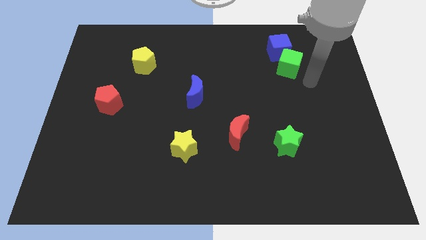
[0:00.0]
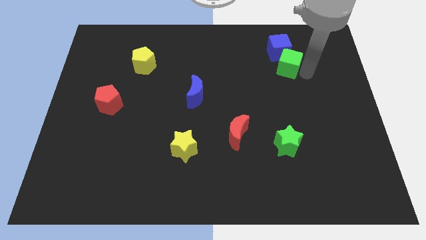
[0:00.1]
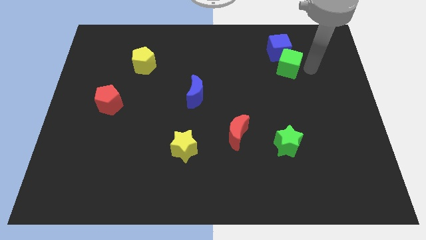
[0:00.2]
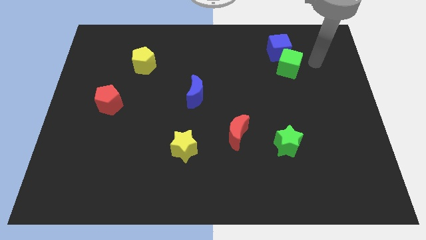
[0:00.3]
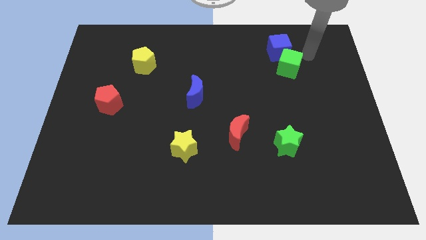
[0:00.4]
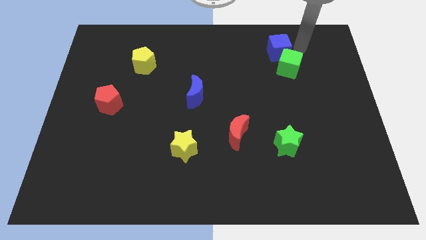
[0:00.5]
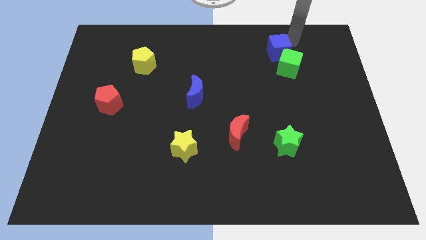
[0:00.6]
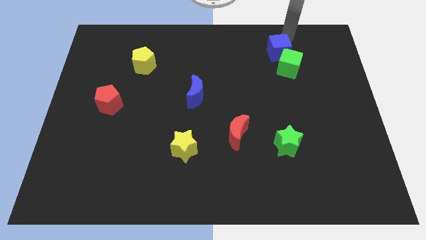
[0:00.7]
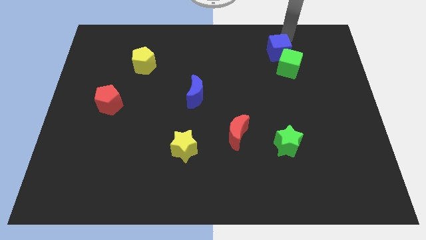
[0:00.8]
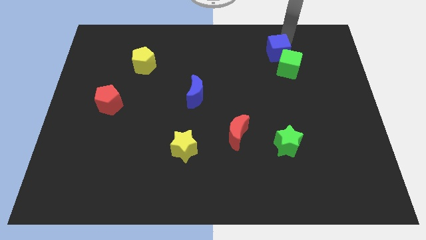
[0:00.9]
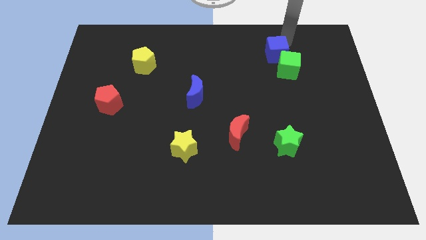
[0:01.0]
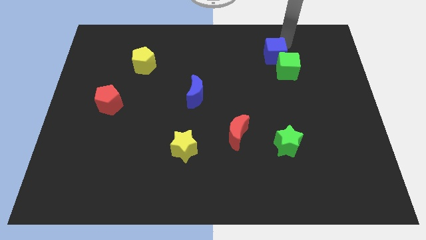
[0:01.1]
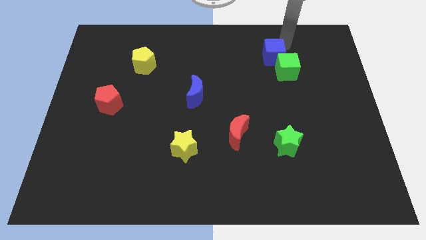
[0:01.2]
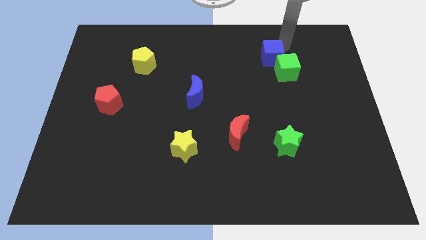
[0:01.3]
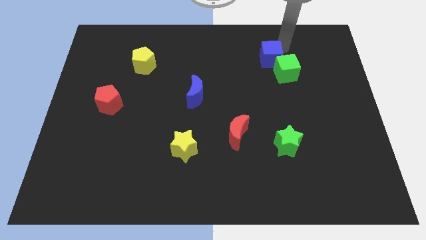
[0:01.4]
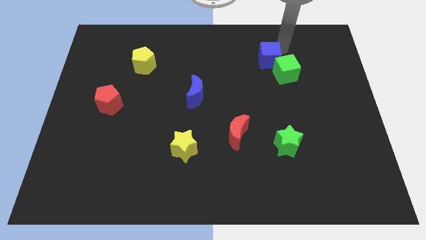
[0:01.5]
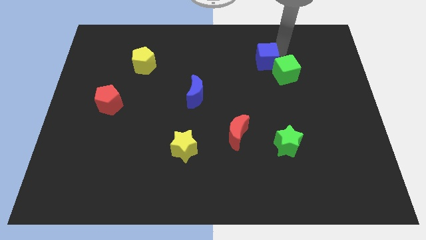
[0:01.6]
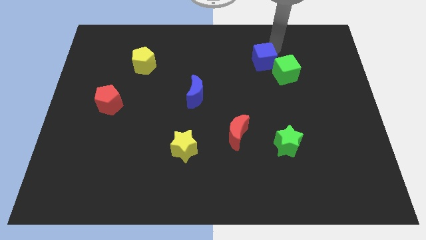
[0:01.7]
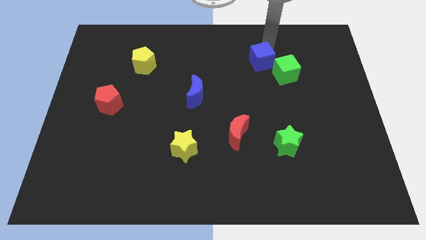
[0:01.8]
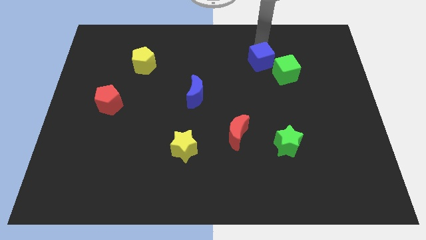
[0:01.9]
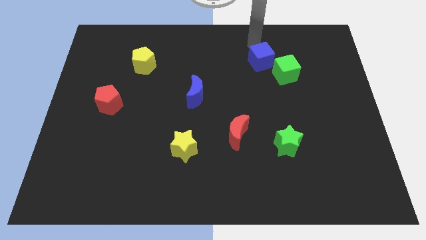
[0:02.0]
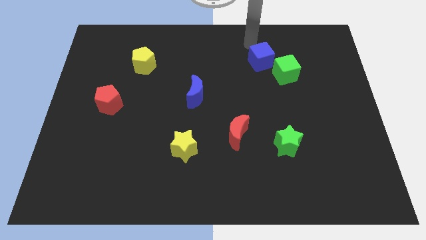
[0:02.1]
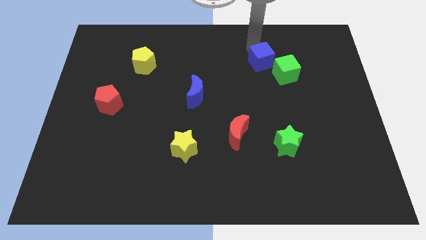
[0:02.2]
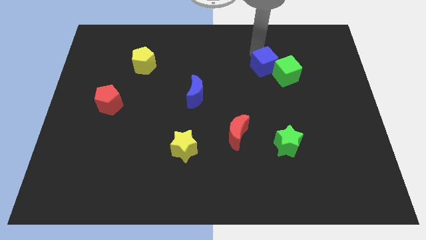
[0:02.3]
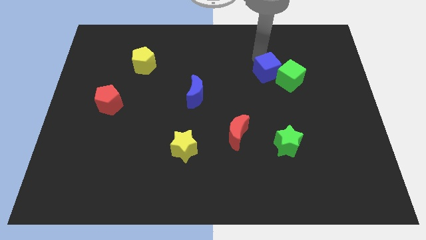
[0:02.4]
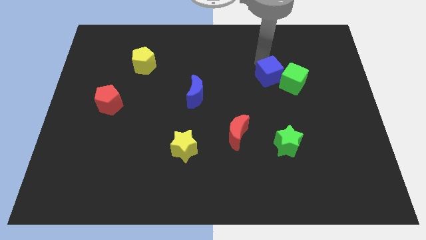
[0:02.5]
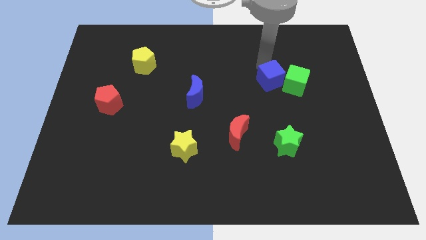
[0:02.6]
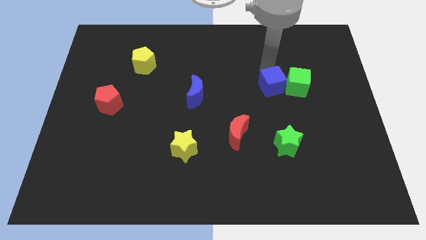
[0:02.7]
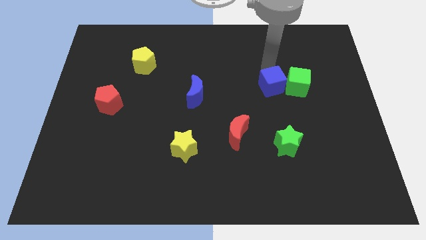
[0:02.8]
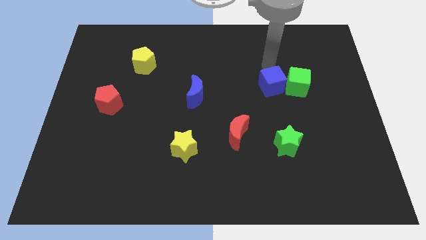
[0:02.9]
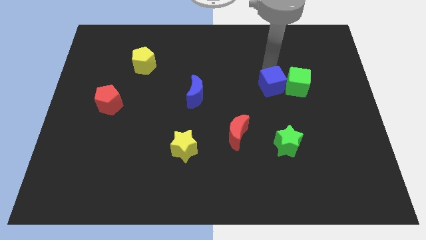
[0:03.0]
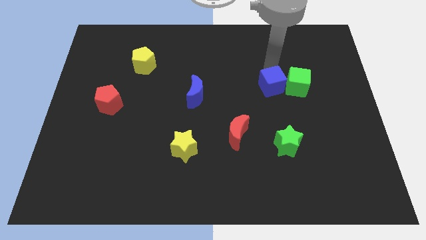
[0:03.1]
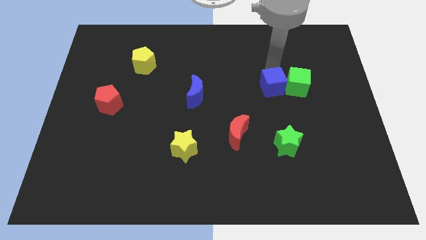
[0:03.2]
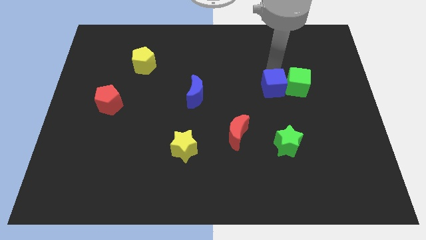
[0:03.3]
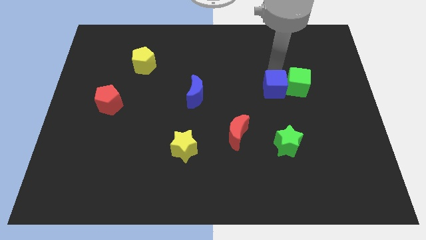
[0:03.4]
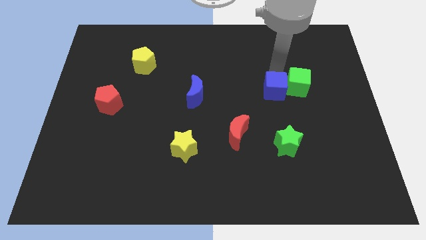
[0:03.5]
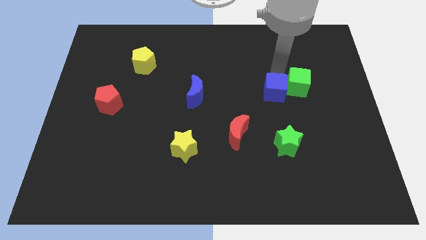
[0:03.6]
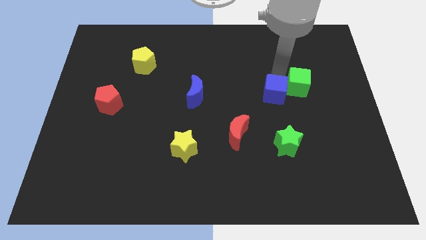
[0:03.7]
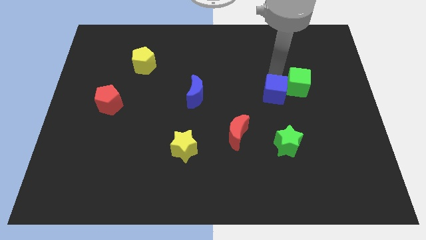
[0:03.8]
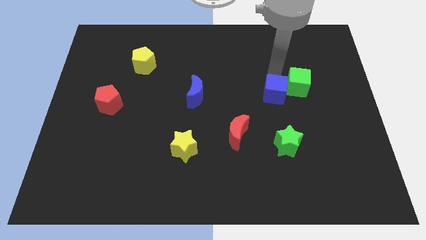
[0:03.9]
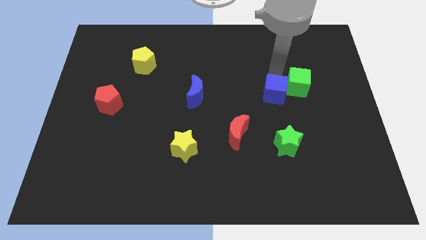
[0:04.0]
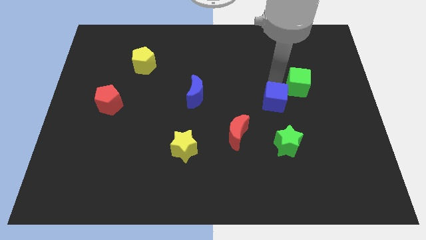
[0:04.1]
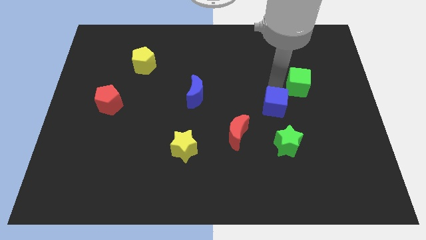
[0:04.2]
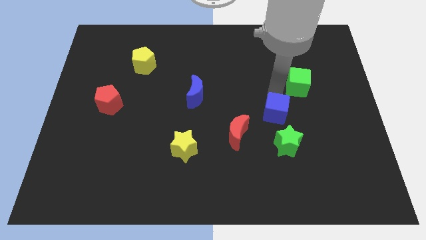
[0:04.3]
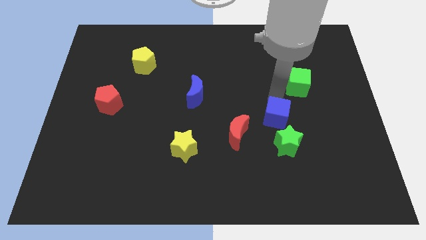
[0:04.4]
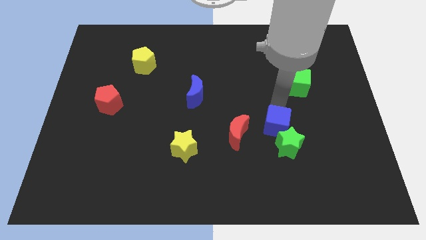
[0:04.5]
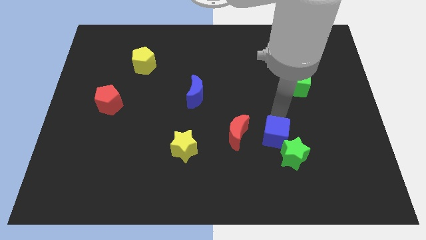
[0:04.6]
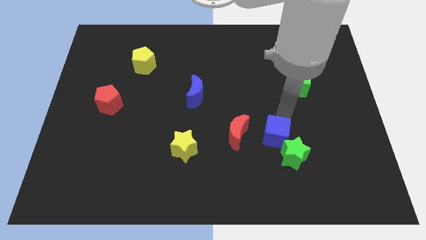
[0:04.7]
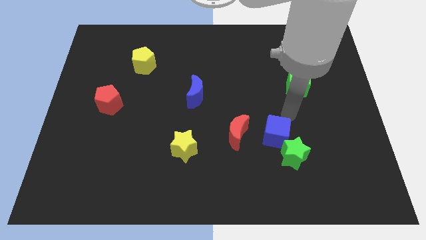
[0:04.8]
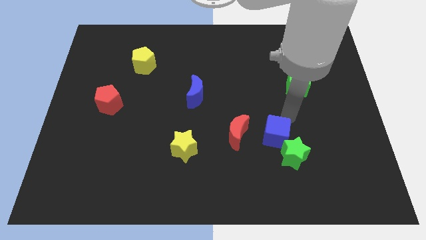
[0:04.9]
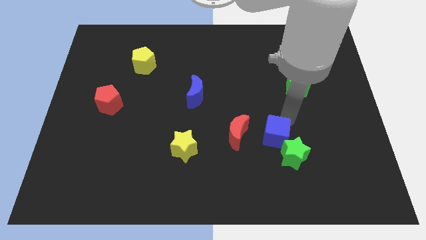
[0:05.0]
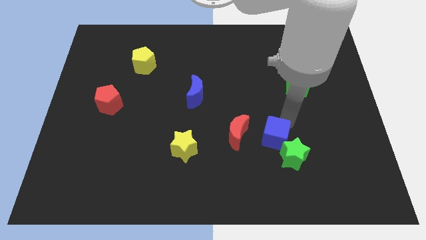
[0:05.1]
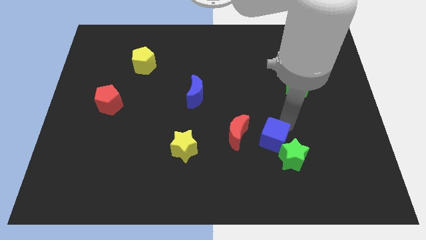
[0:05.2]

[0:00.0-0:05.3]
push the blue cube to the bottom right side of the red moon
